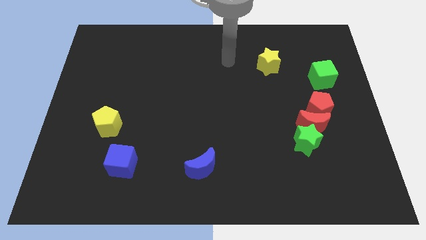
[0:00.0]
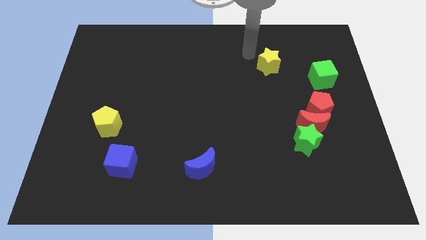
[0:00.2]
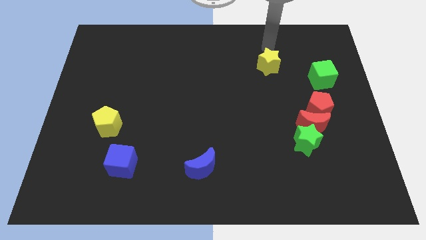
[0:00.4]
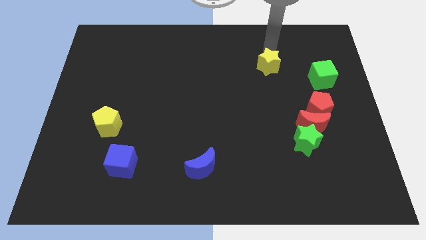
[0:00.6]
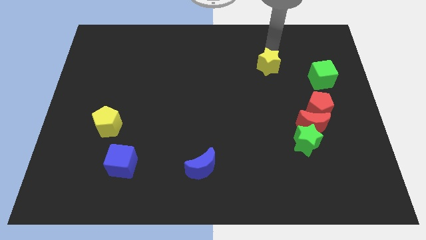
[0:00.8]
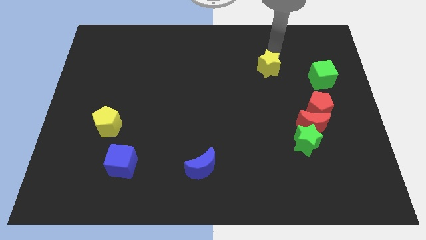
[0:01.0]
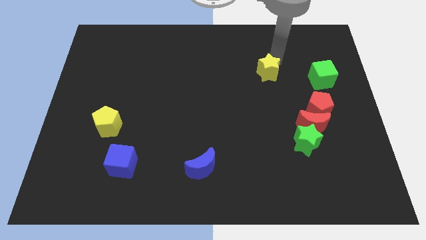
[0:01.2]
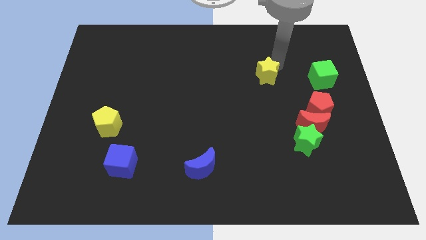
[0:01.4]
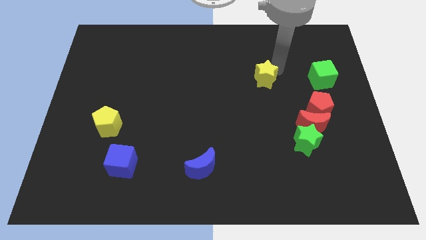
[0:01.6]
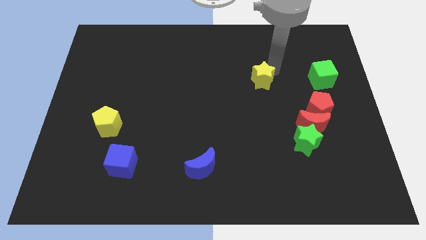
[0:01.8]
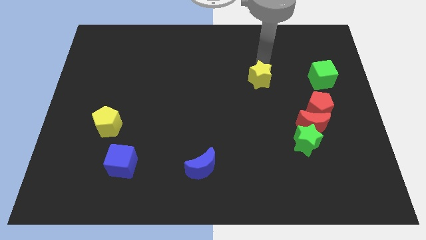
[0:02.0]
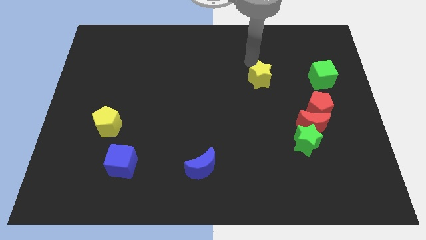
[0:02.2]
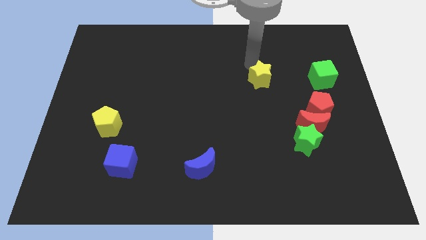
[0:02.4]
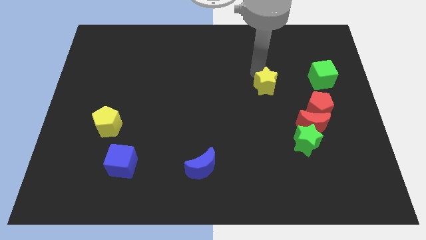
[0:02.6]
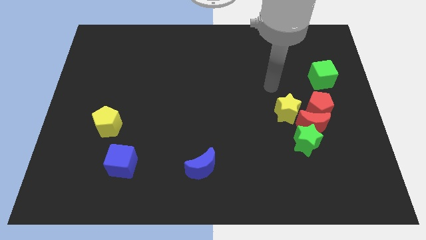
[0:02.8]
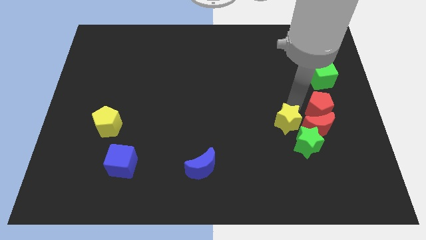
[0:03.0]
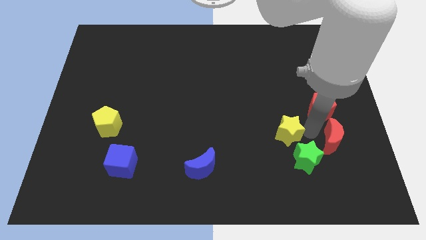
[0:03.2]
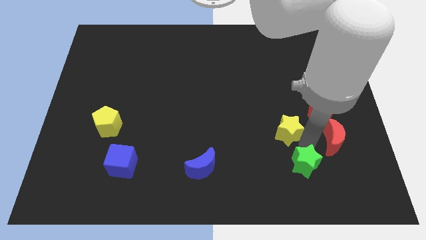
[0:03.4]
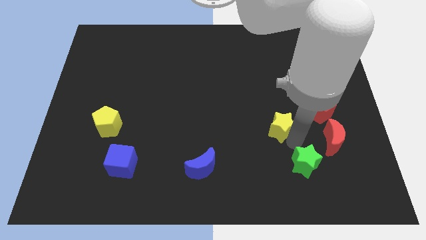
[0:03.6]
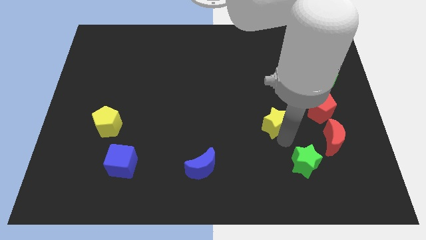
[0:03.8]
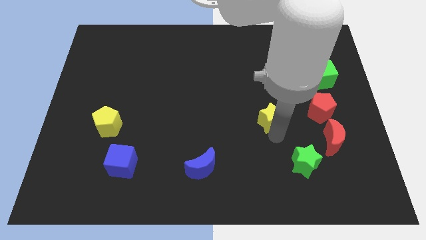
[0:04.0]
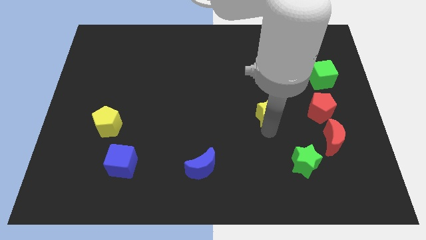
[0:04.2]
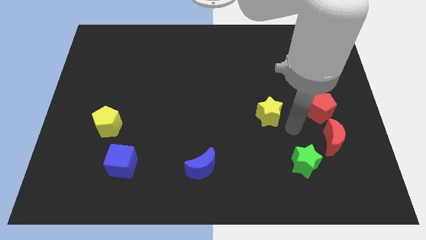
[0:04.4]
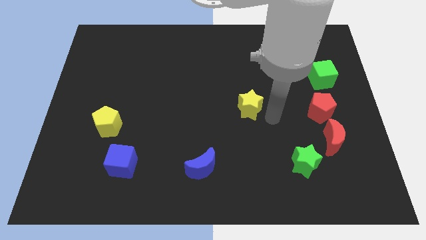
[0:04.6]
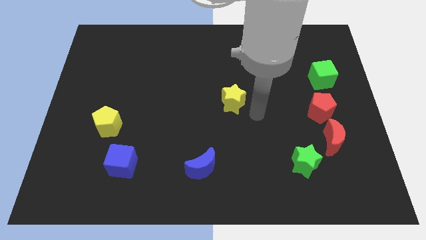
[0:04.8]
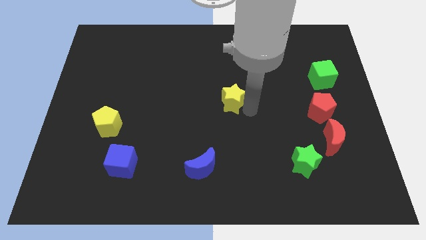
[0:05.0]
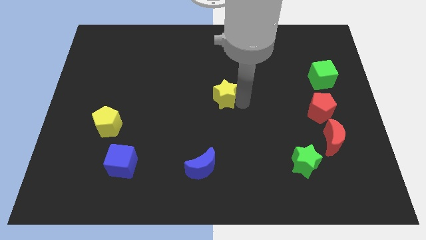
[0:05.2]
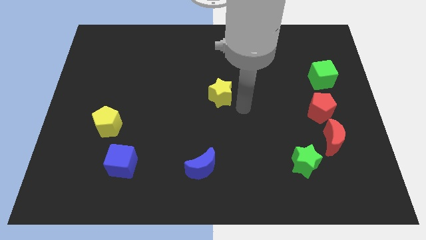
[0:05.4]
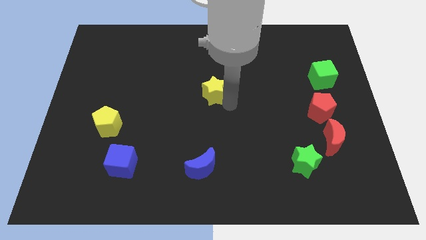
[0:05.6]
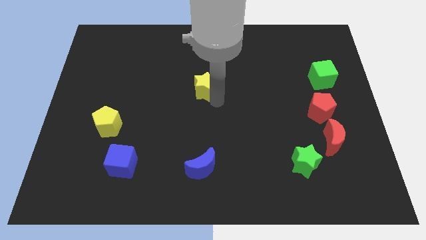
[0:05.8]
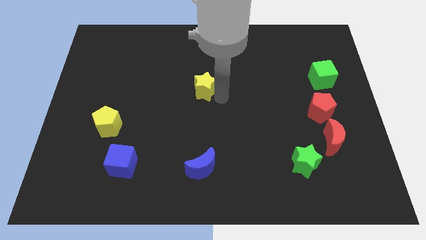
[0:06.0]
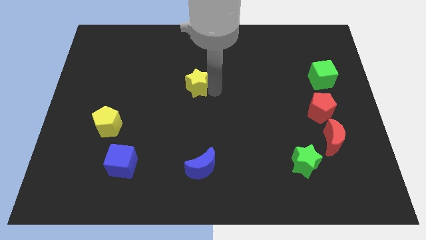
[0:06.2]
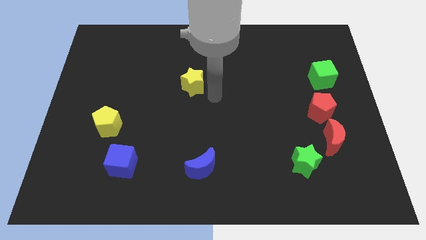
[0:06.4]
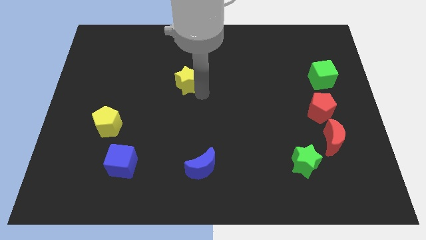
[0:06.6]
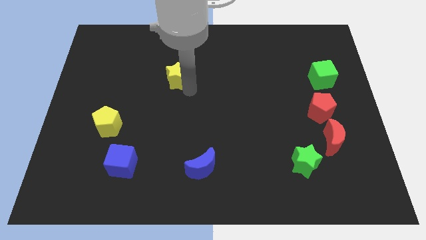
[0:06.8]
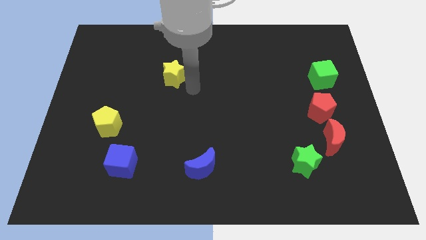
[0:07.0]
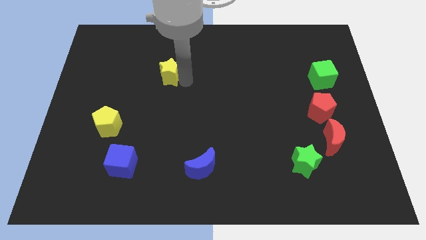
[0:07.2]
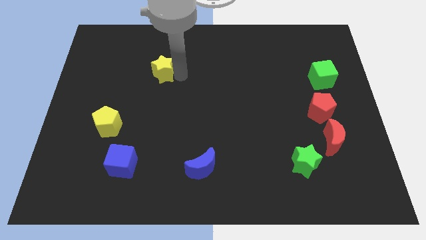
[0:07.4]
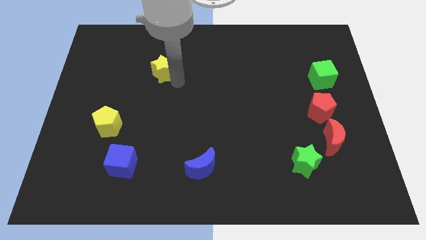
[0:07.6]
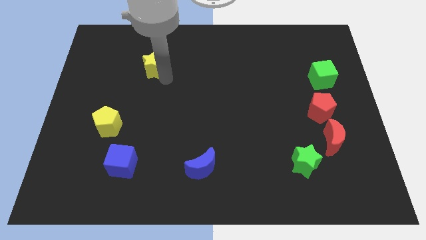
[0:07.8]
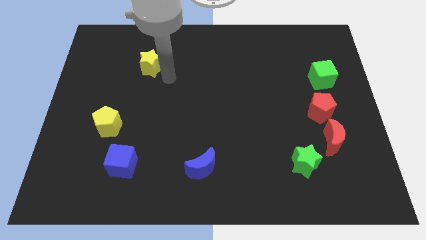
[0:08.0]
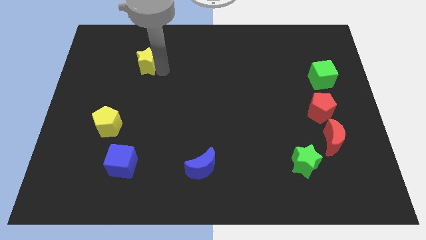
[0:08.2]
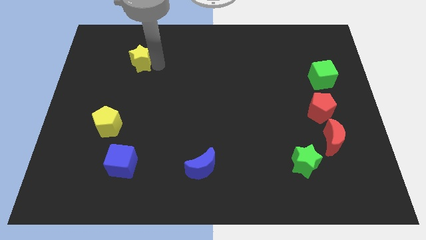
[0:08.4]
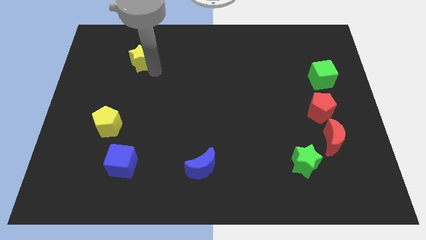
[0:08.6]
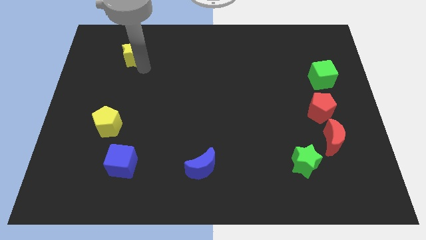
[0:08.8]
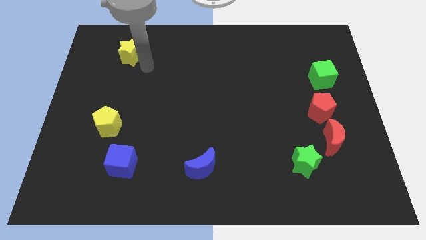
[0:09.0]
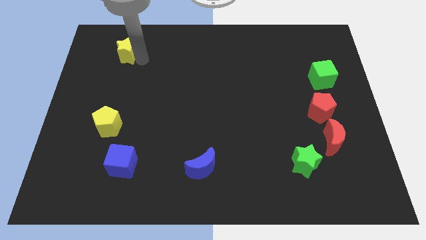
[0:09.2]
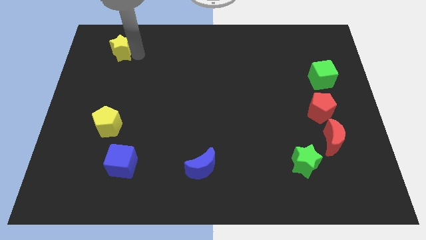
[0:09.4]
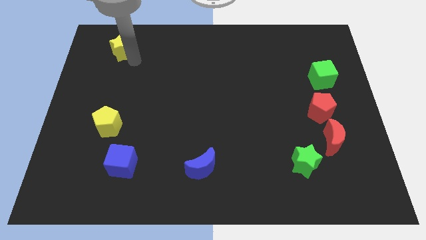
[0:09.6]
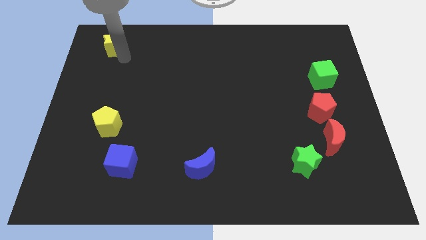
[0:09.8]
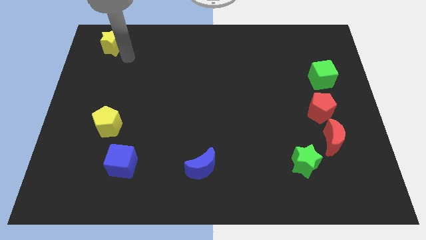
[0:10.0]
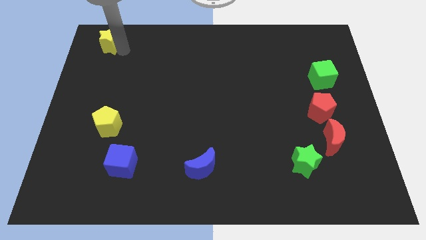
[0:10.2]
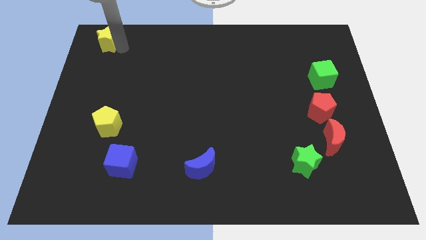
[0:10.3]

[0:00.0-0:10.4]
push the yellow star to the top left
